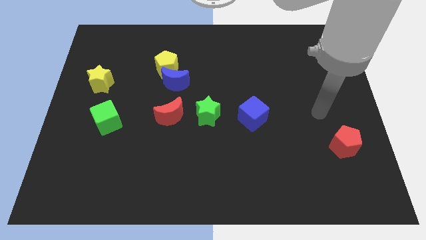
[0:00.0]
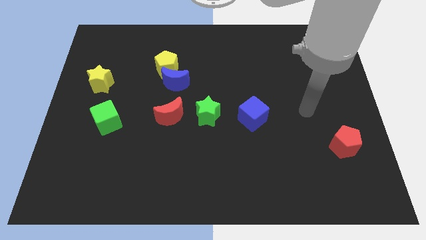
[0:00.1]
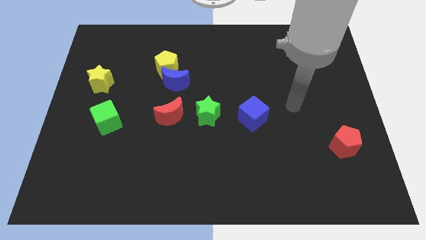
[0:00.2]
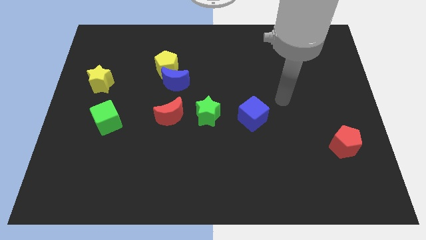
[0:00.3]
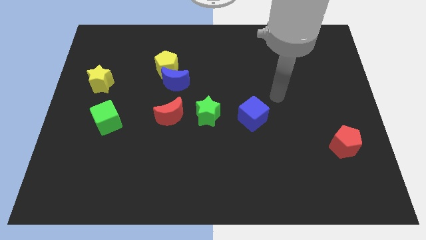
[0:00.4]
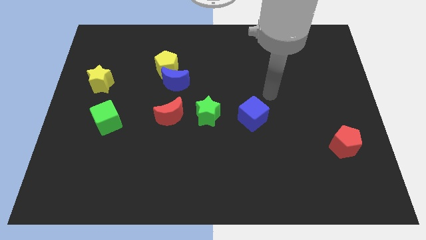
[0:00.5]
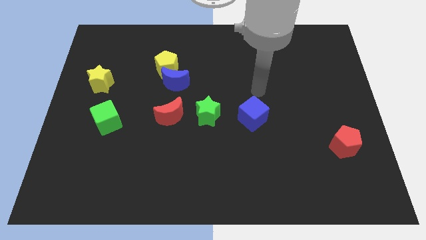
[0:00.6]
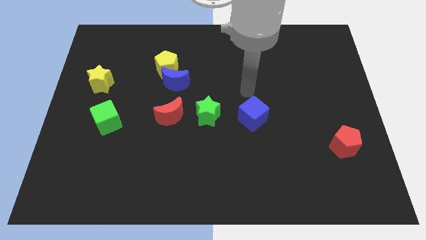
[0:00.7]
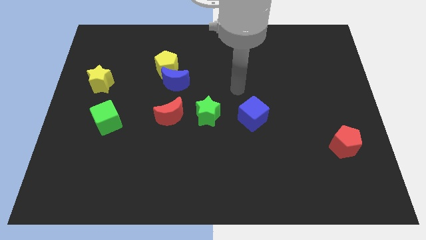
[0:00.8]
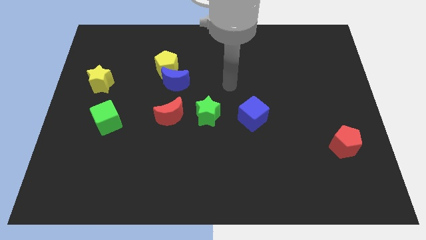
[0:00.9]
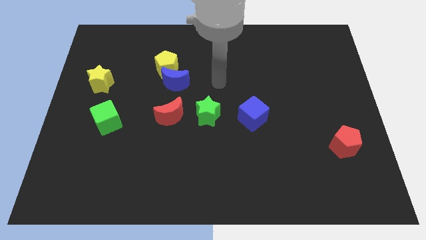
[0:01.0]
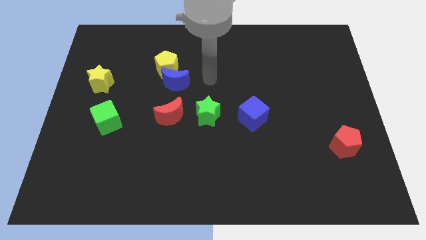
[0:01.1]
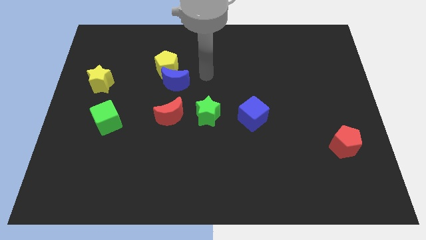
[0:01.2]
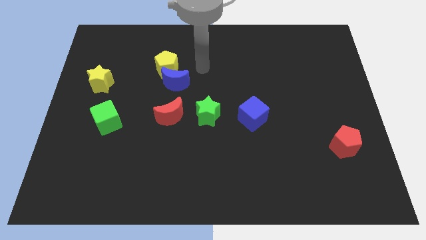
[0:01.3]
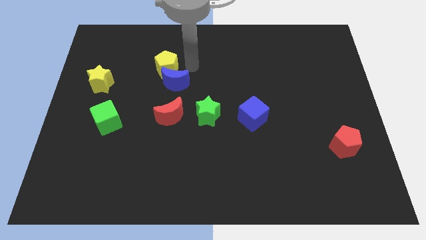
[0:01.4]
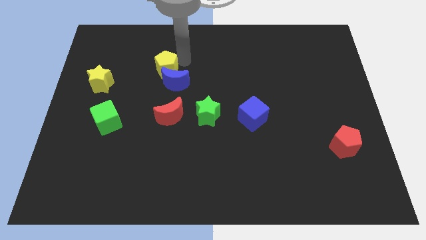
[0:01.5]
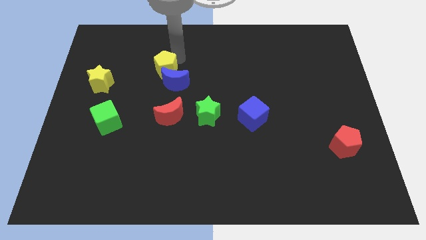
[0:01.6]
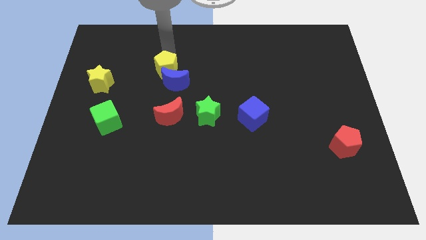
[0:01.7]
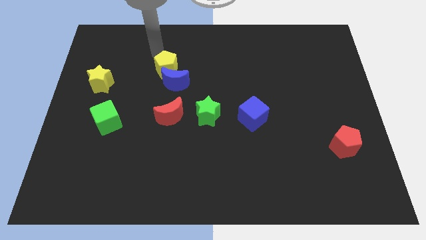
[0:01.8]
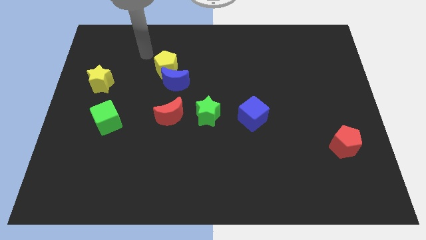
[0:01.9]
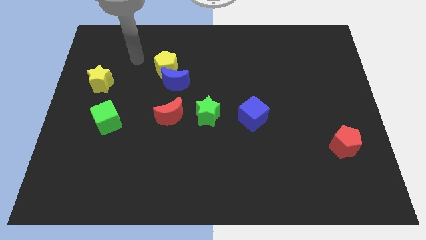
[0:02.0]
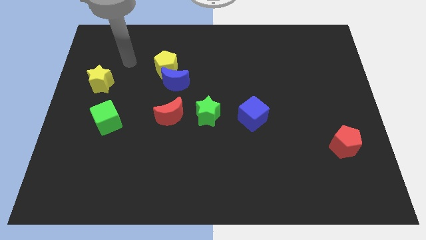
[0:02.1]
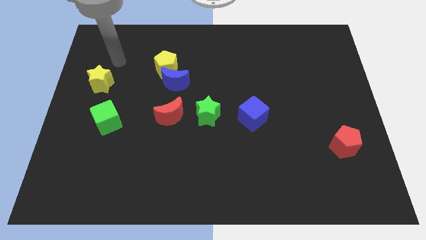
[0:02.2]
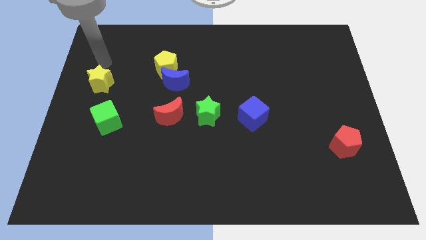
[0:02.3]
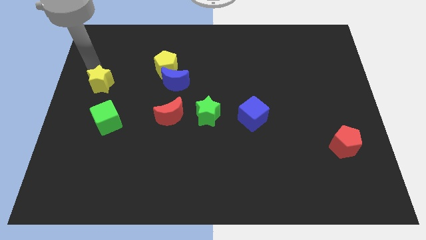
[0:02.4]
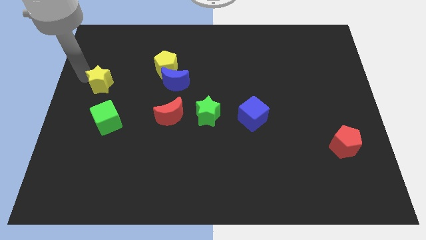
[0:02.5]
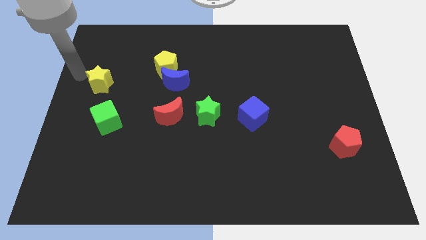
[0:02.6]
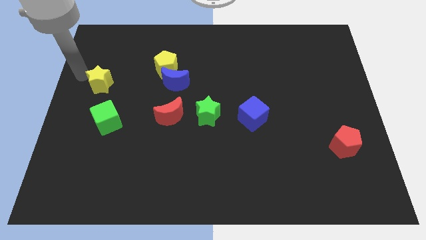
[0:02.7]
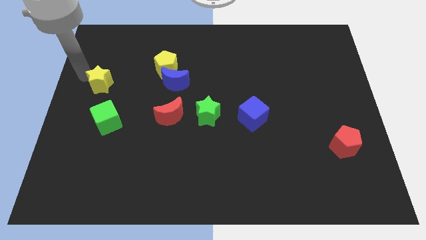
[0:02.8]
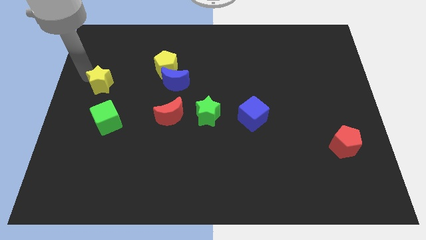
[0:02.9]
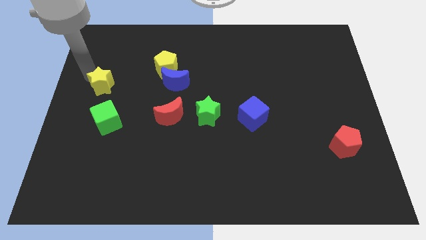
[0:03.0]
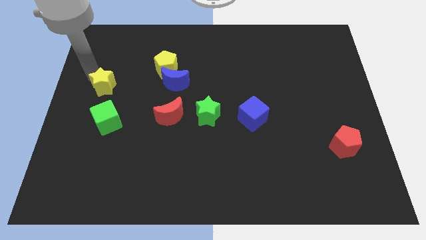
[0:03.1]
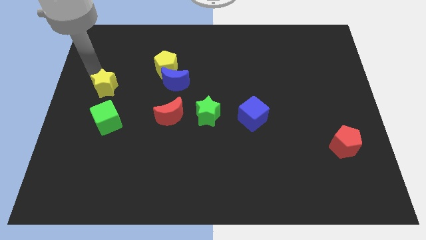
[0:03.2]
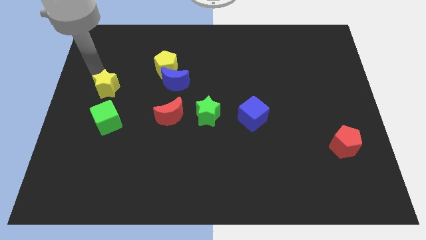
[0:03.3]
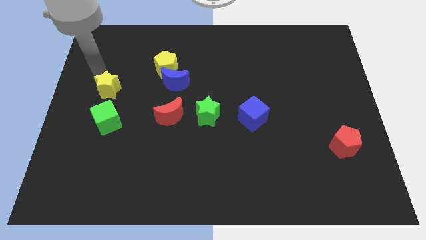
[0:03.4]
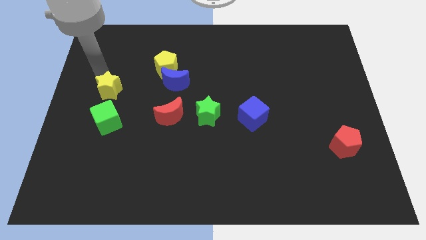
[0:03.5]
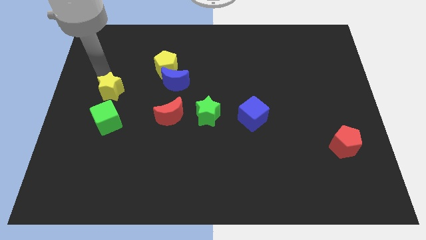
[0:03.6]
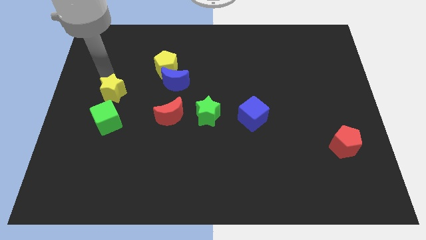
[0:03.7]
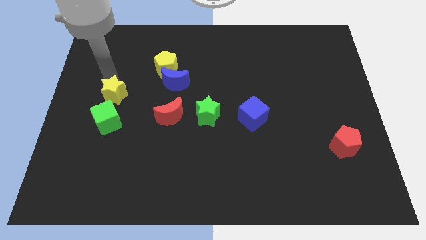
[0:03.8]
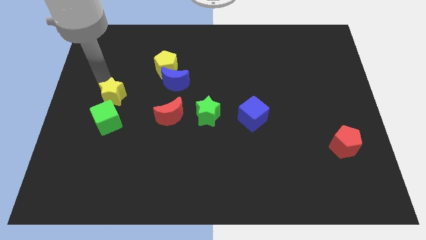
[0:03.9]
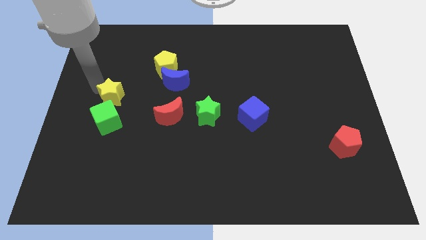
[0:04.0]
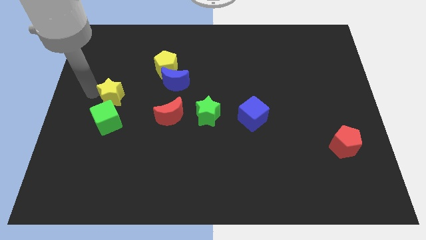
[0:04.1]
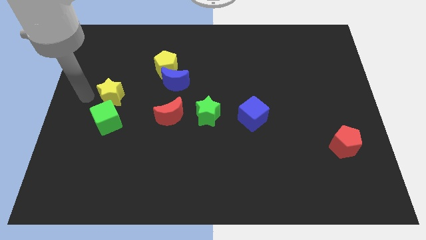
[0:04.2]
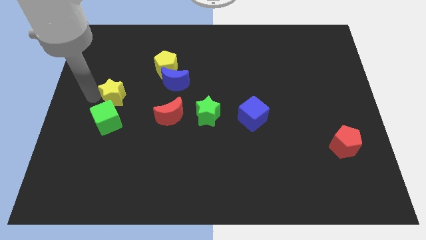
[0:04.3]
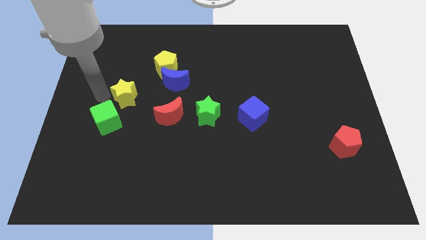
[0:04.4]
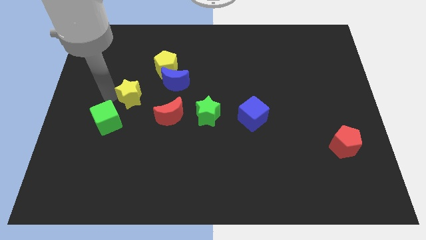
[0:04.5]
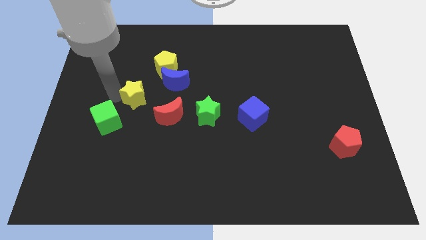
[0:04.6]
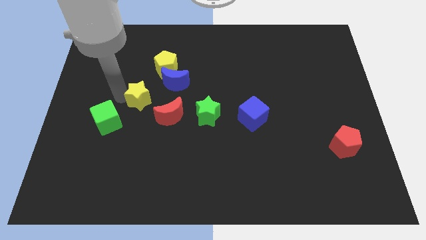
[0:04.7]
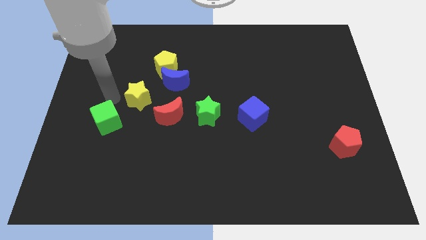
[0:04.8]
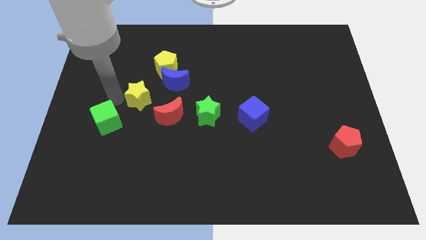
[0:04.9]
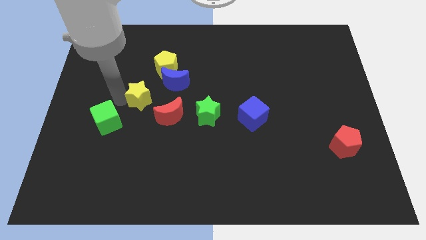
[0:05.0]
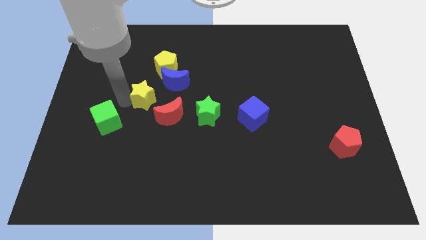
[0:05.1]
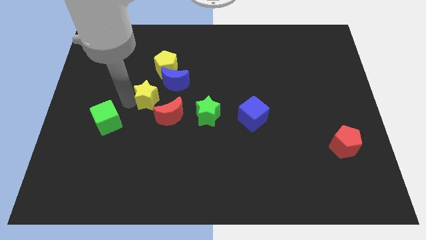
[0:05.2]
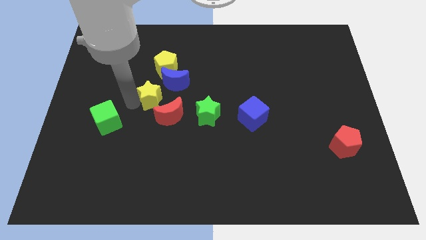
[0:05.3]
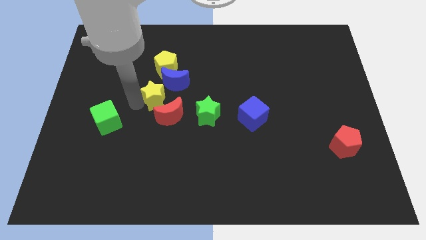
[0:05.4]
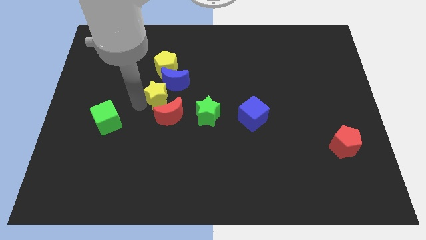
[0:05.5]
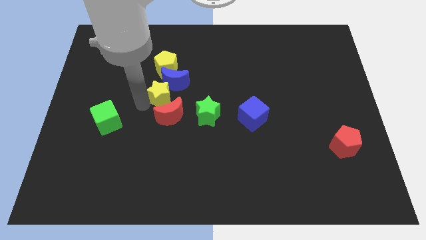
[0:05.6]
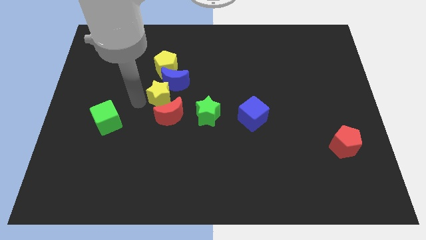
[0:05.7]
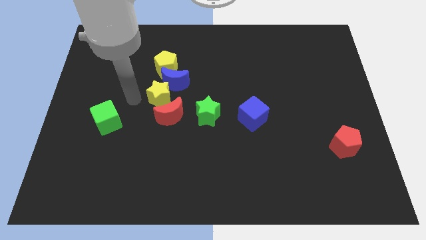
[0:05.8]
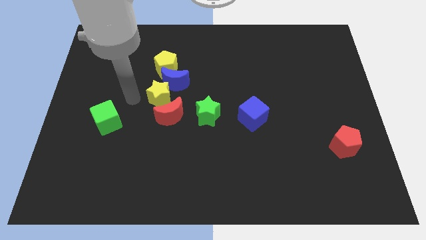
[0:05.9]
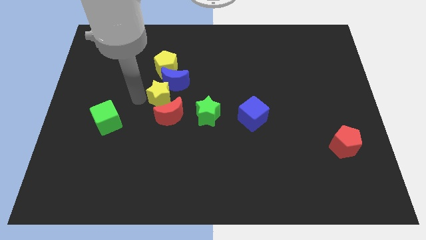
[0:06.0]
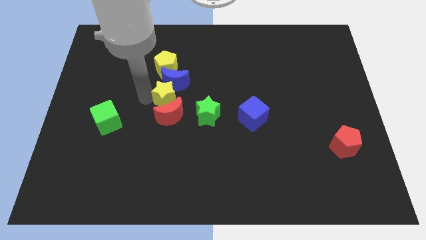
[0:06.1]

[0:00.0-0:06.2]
slide the yellow star to the top left of the green star

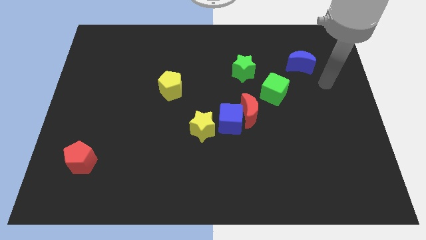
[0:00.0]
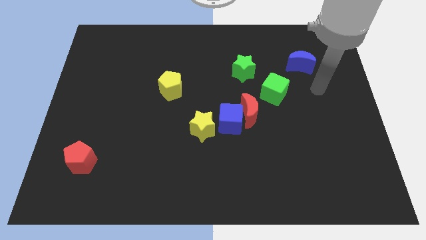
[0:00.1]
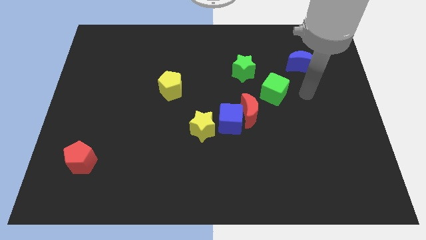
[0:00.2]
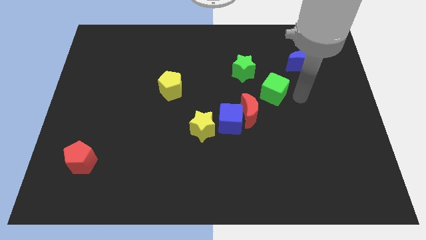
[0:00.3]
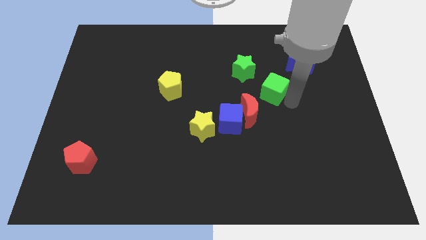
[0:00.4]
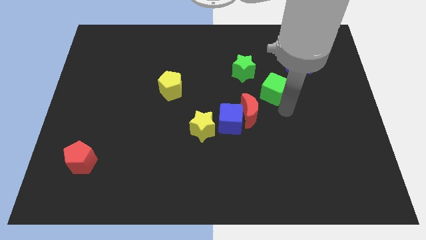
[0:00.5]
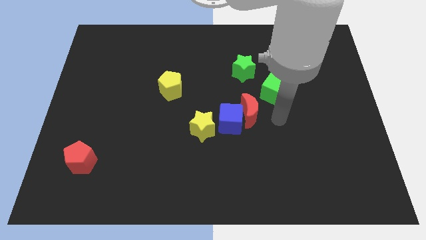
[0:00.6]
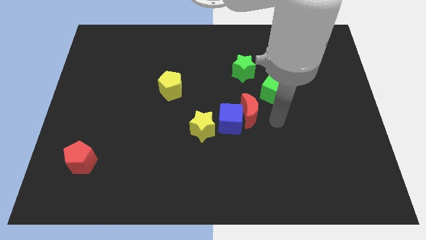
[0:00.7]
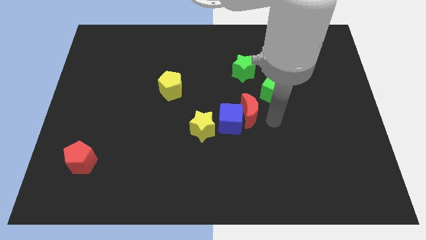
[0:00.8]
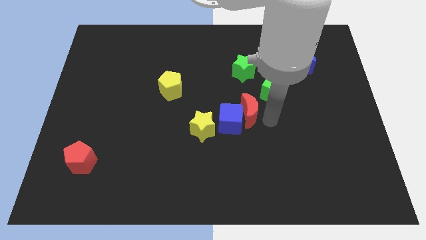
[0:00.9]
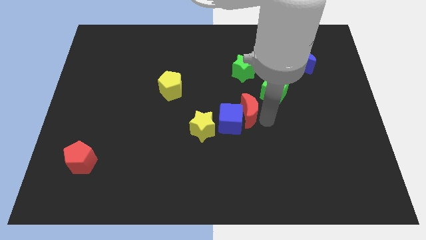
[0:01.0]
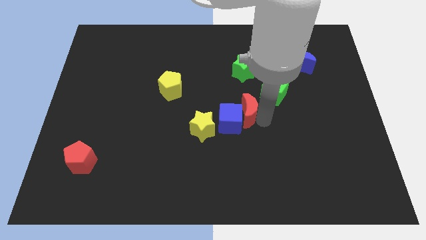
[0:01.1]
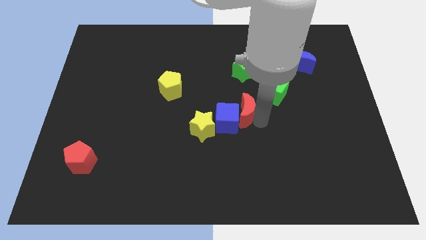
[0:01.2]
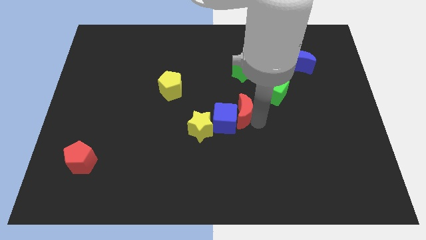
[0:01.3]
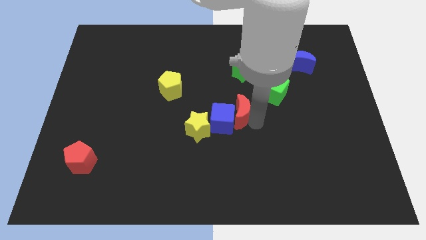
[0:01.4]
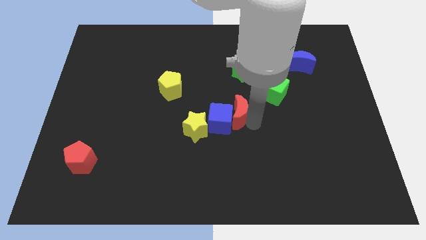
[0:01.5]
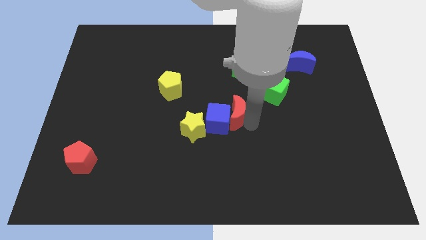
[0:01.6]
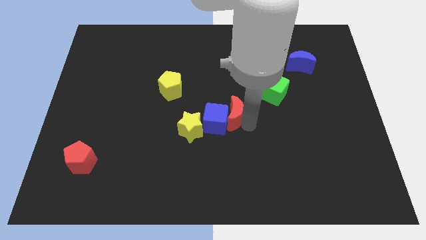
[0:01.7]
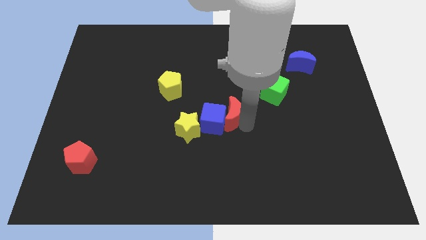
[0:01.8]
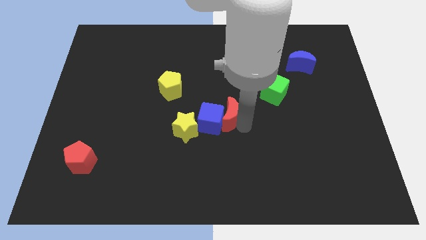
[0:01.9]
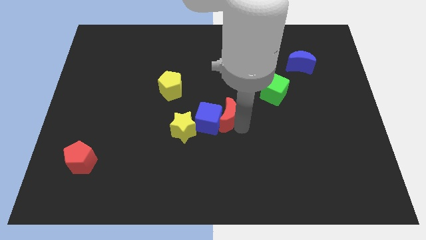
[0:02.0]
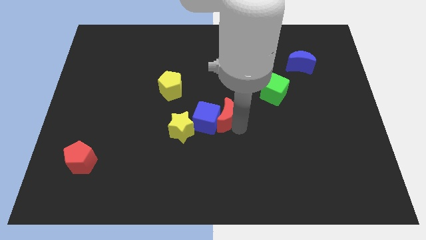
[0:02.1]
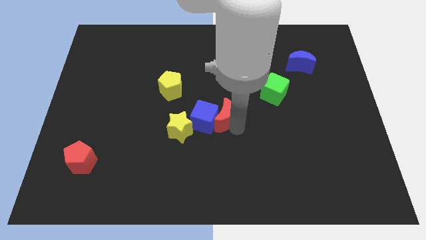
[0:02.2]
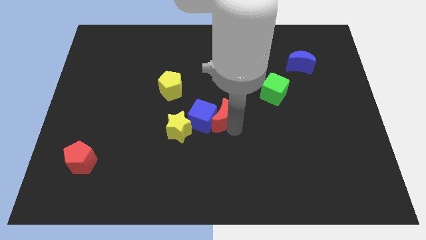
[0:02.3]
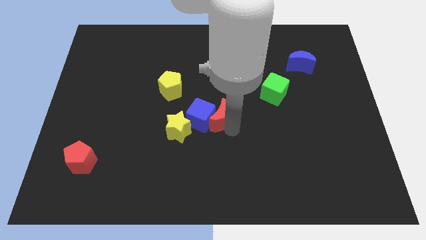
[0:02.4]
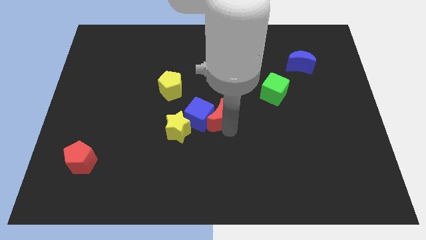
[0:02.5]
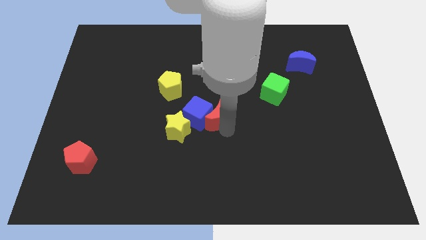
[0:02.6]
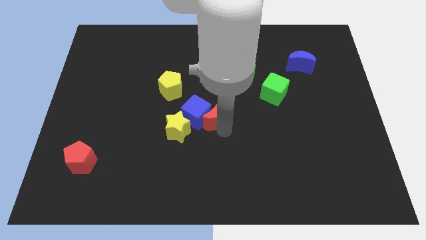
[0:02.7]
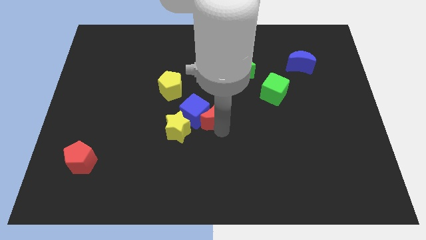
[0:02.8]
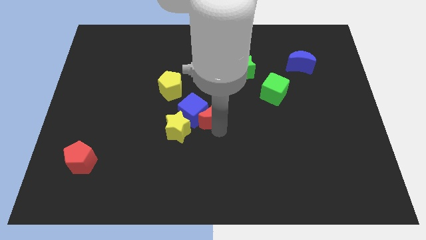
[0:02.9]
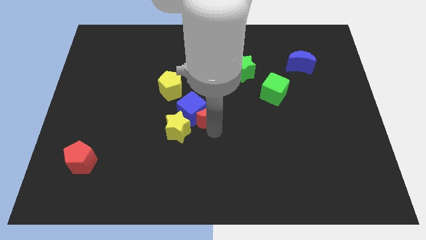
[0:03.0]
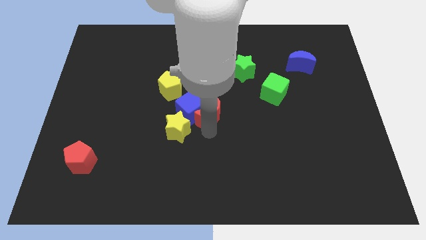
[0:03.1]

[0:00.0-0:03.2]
put the red moon diagonally down and to the right of the yellow pentagon
